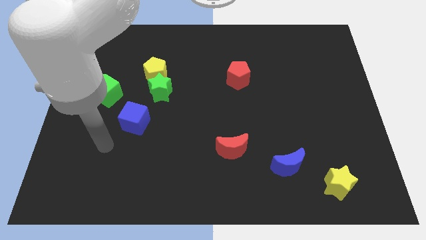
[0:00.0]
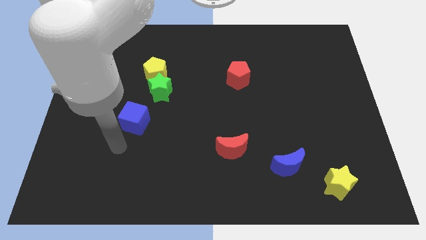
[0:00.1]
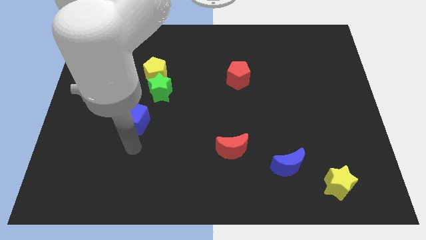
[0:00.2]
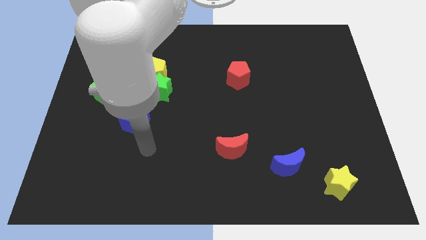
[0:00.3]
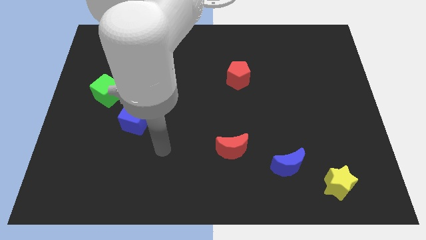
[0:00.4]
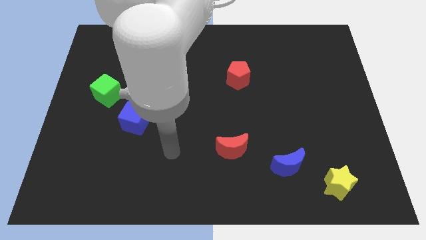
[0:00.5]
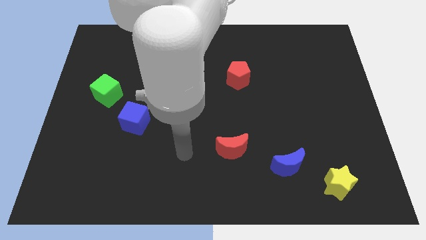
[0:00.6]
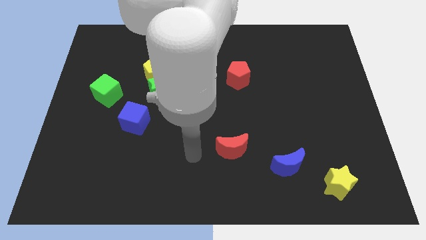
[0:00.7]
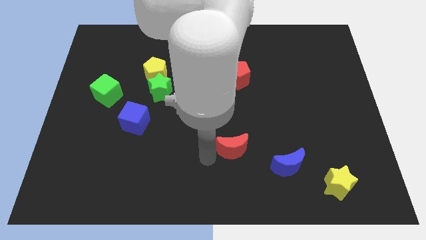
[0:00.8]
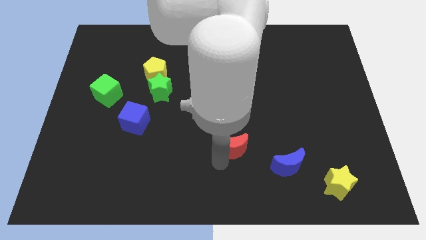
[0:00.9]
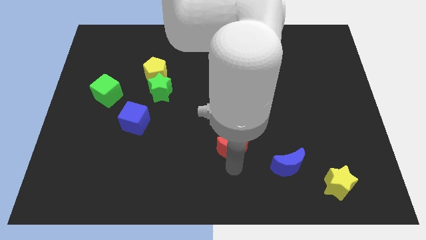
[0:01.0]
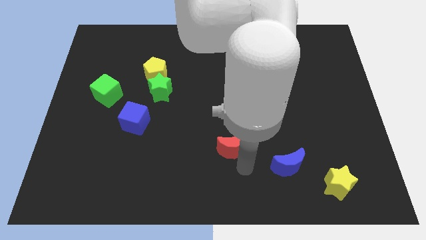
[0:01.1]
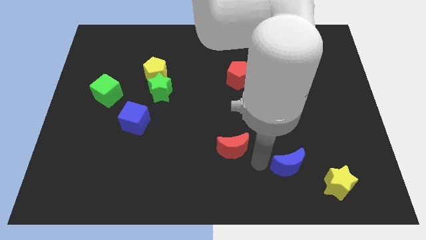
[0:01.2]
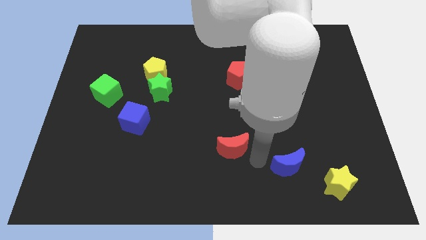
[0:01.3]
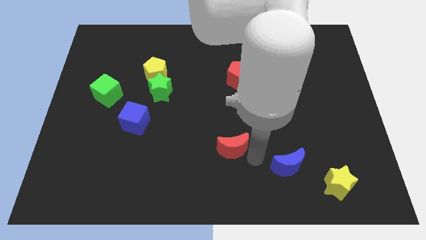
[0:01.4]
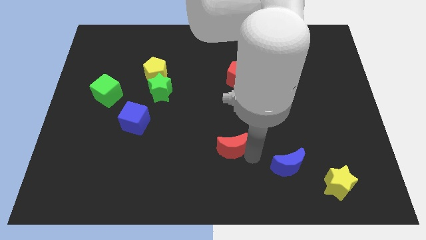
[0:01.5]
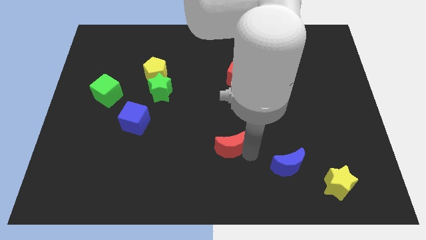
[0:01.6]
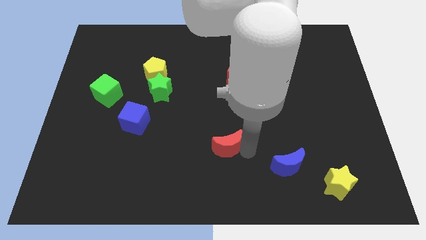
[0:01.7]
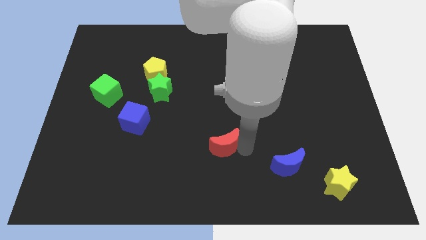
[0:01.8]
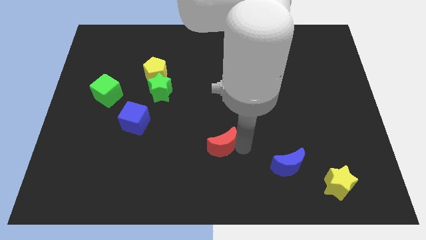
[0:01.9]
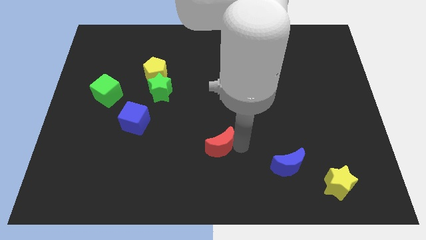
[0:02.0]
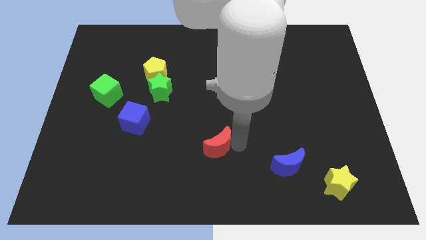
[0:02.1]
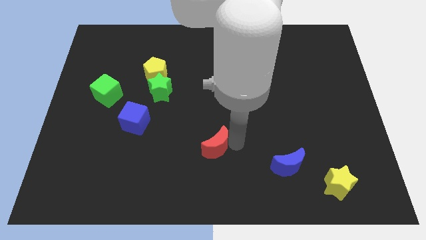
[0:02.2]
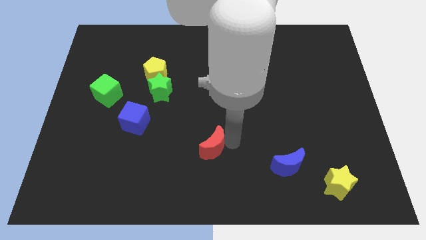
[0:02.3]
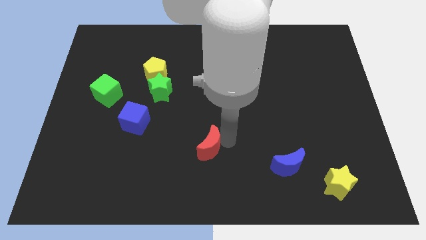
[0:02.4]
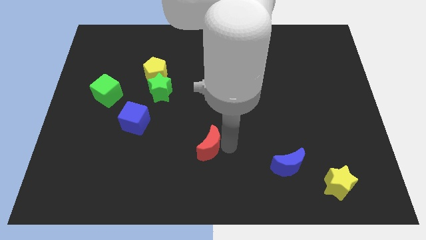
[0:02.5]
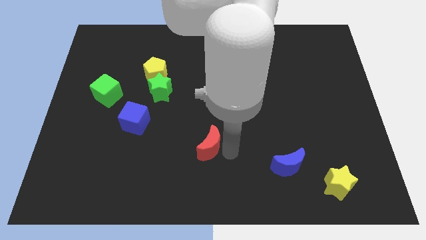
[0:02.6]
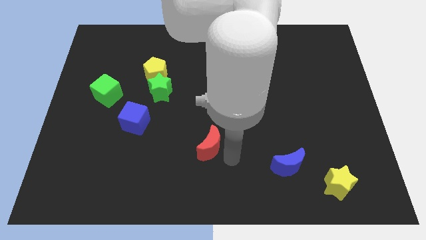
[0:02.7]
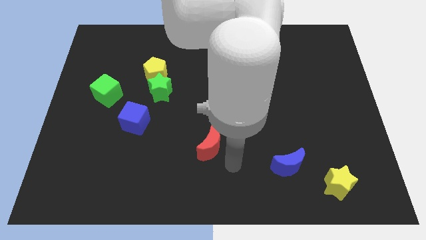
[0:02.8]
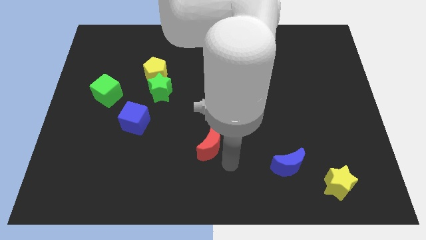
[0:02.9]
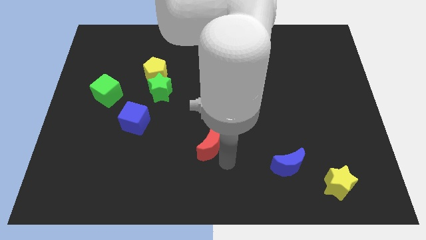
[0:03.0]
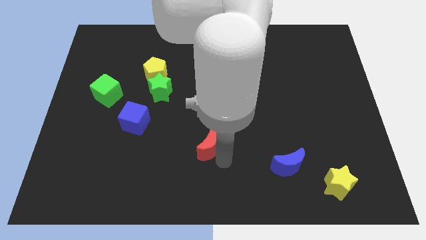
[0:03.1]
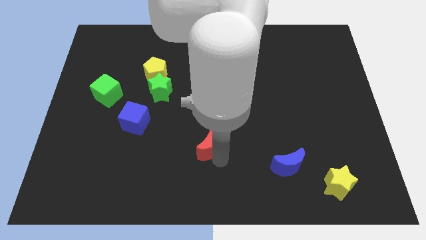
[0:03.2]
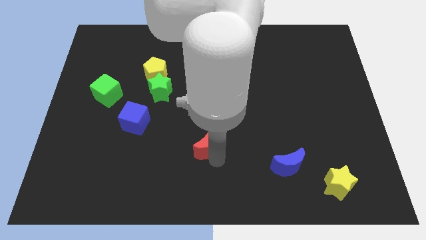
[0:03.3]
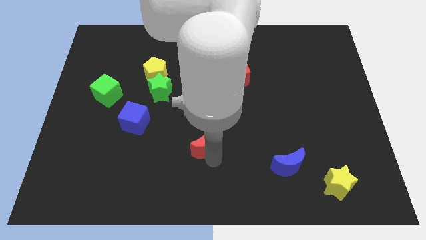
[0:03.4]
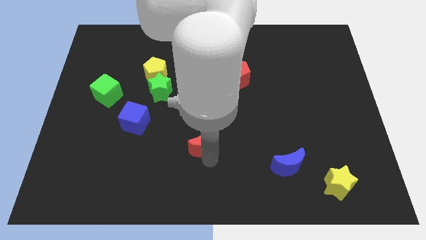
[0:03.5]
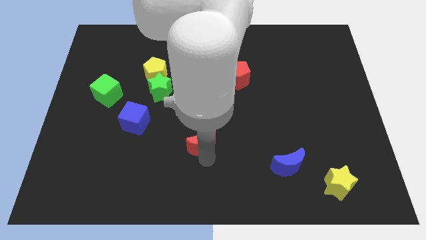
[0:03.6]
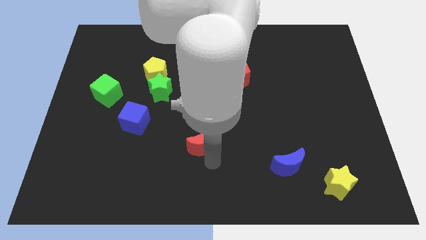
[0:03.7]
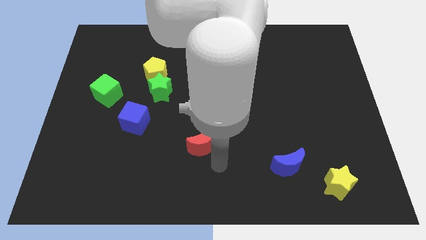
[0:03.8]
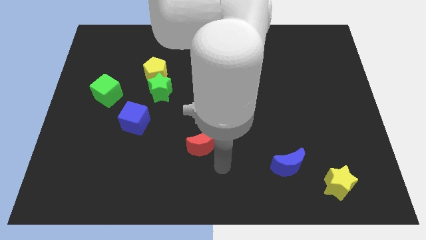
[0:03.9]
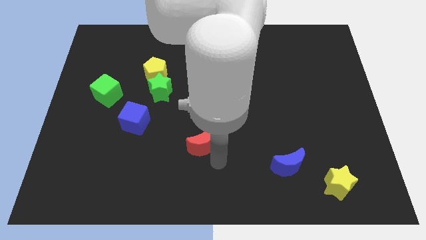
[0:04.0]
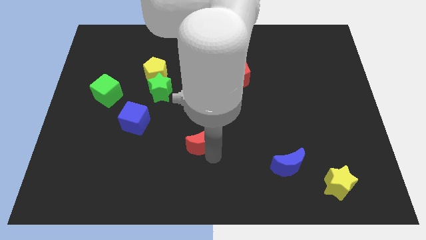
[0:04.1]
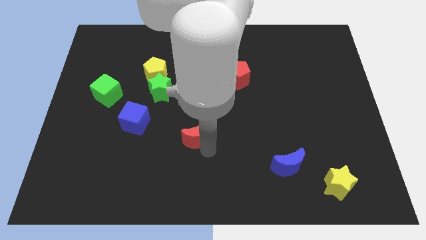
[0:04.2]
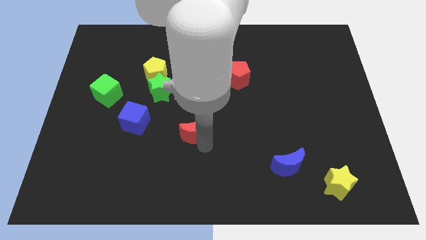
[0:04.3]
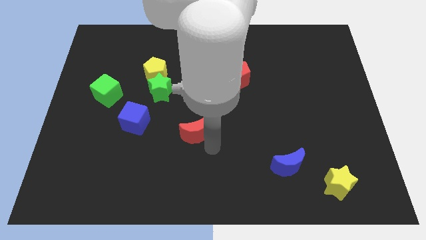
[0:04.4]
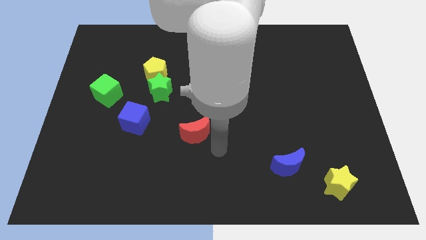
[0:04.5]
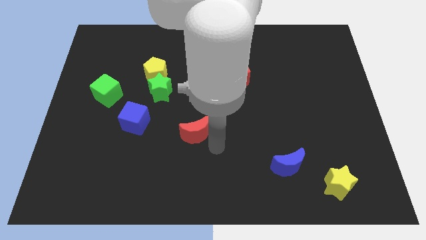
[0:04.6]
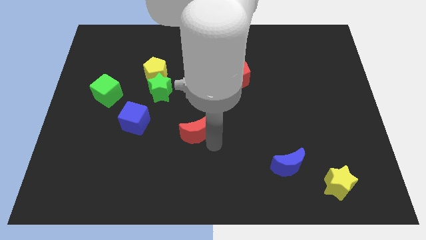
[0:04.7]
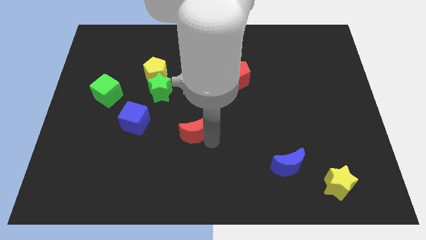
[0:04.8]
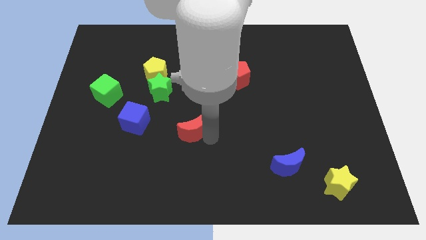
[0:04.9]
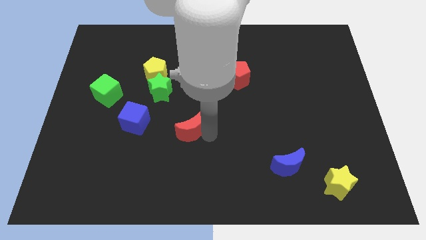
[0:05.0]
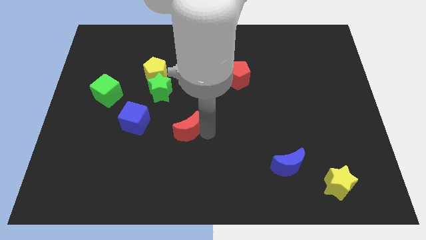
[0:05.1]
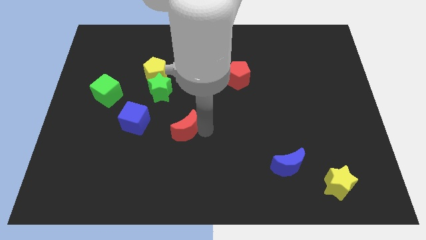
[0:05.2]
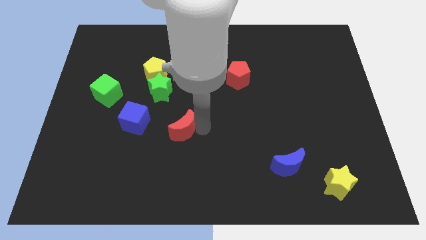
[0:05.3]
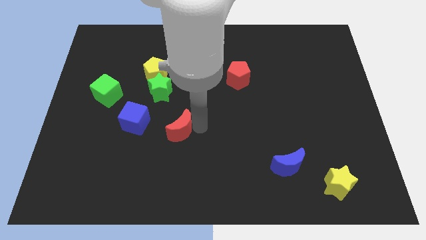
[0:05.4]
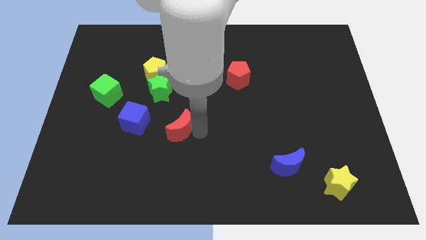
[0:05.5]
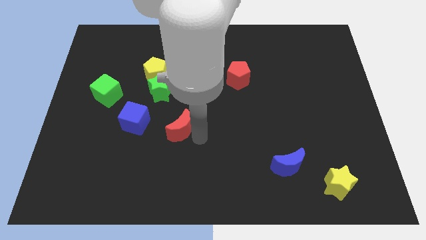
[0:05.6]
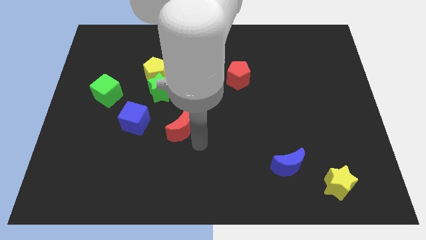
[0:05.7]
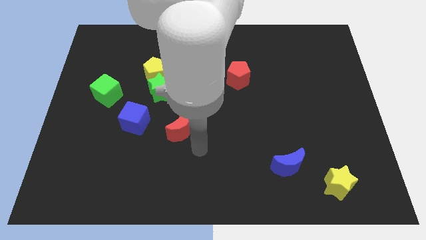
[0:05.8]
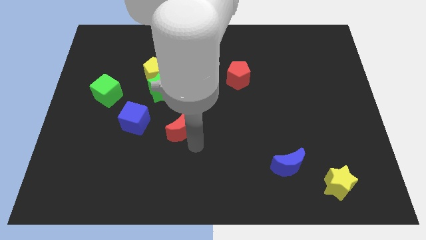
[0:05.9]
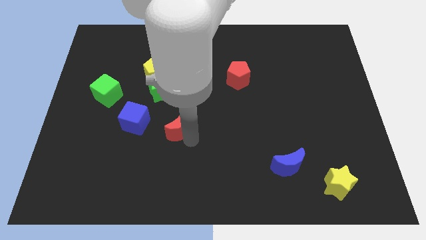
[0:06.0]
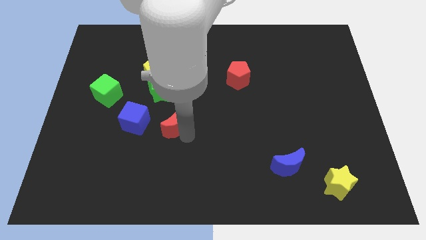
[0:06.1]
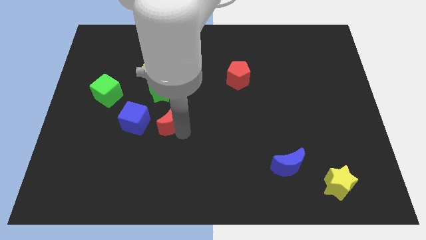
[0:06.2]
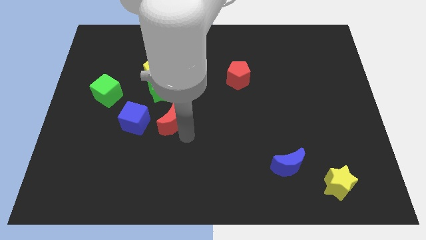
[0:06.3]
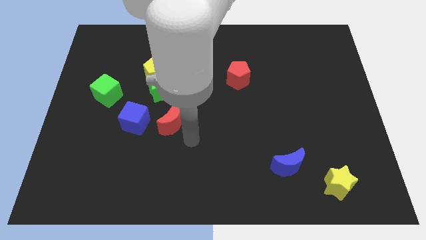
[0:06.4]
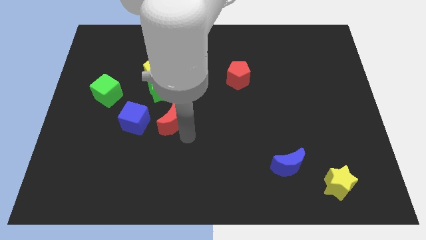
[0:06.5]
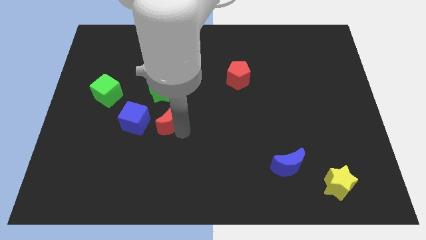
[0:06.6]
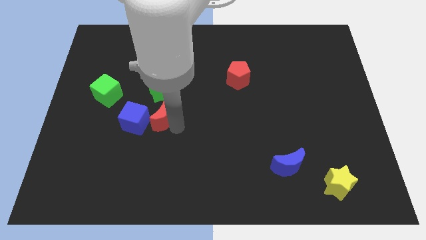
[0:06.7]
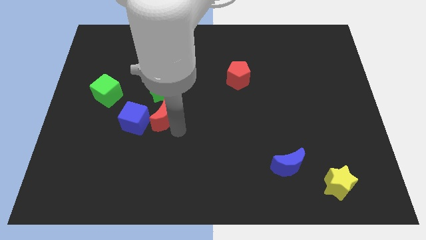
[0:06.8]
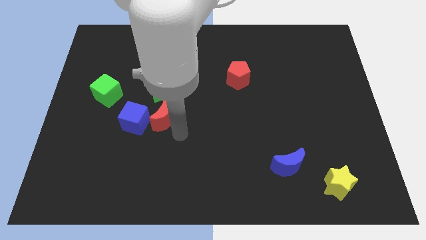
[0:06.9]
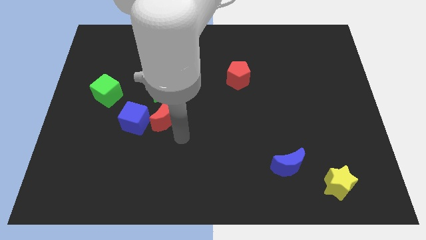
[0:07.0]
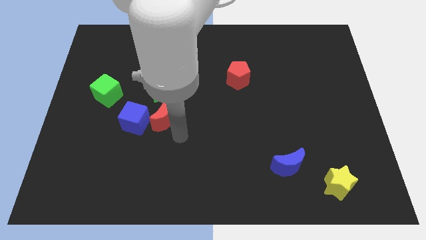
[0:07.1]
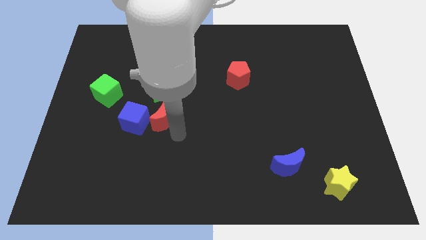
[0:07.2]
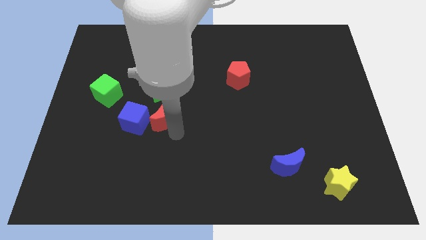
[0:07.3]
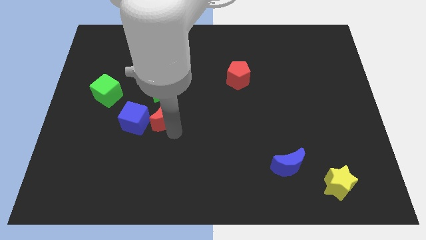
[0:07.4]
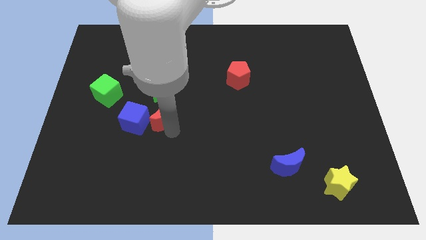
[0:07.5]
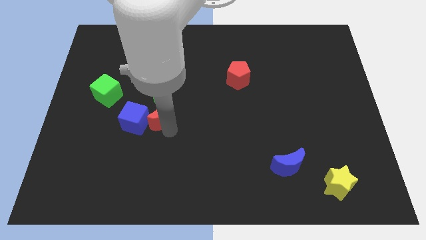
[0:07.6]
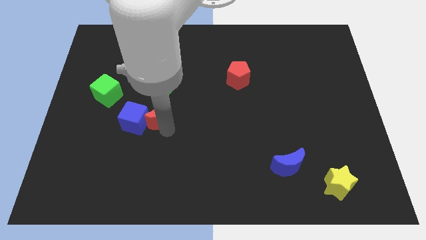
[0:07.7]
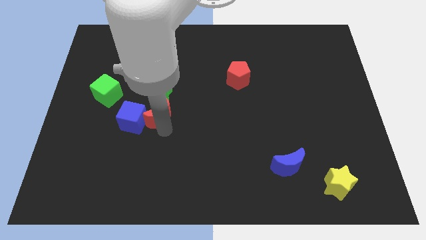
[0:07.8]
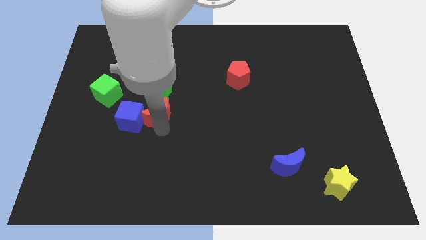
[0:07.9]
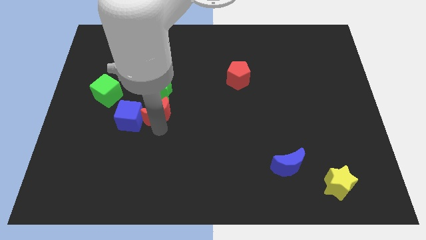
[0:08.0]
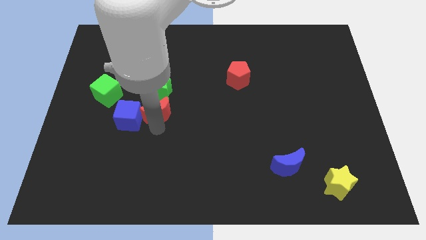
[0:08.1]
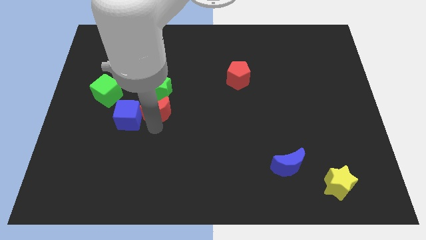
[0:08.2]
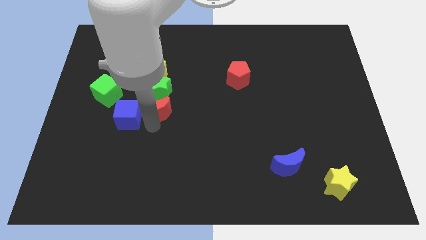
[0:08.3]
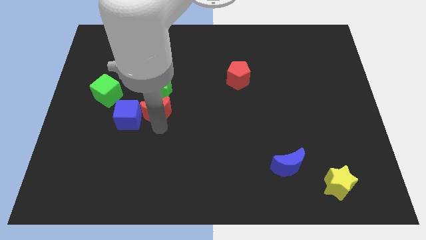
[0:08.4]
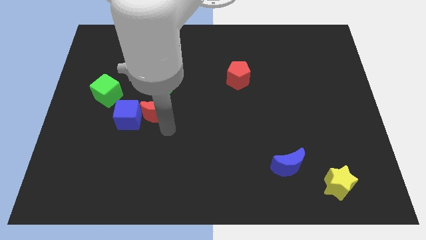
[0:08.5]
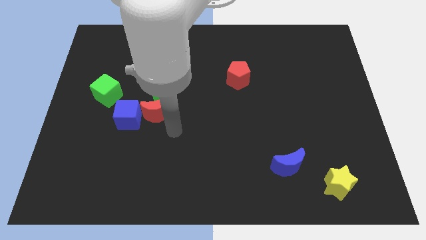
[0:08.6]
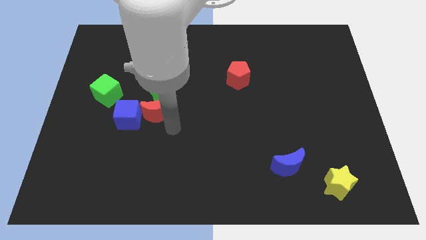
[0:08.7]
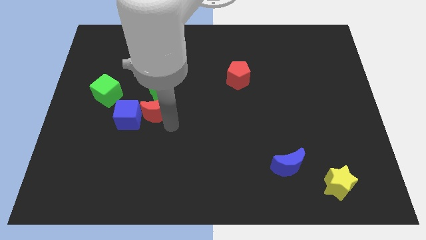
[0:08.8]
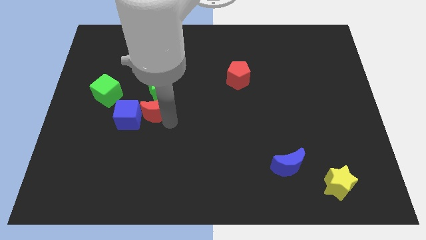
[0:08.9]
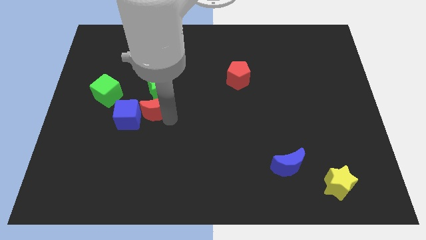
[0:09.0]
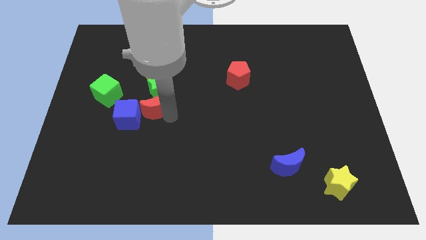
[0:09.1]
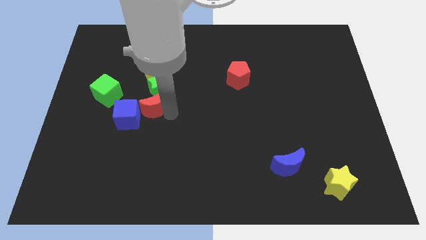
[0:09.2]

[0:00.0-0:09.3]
push the red moon diagonally up and left
